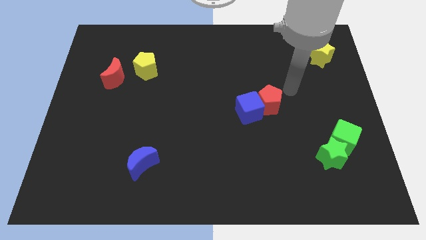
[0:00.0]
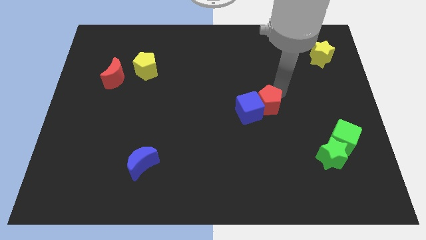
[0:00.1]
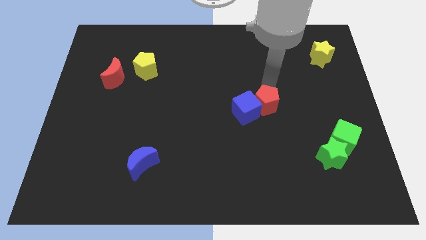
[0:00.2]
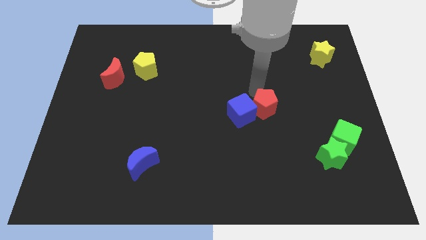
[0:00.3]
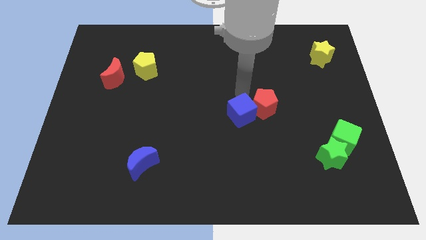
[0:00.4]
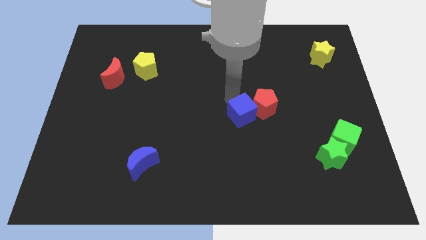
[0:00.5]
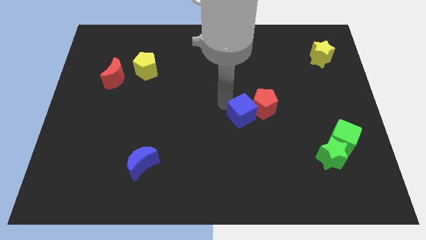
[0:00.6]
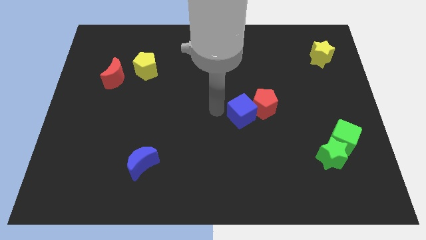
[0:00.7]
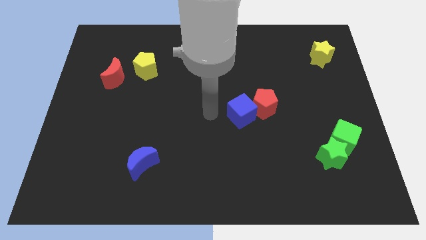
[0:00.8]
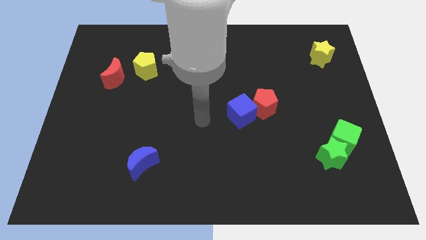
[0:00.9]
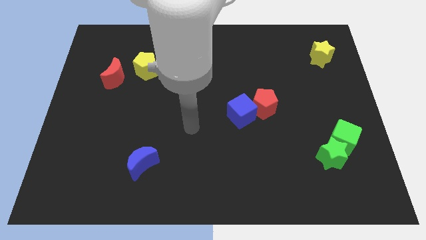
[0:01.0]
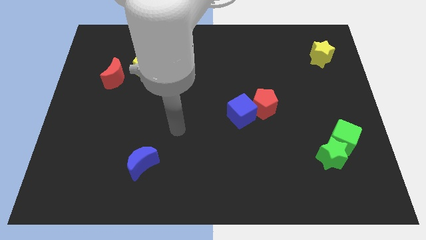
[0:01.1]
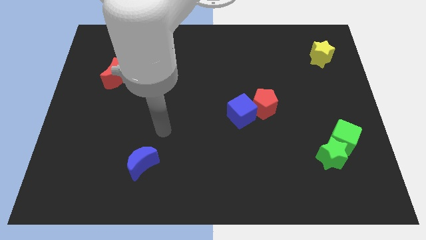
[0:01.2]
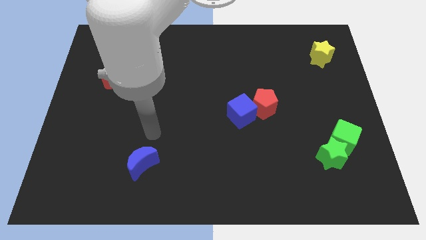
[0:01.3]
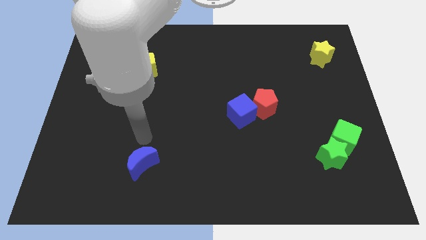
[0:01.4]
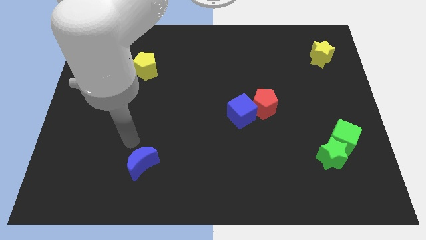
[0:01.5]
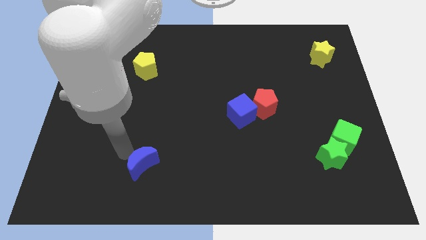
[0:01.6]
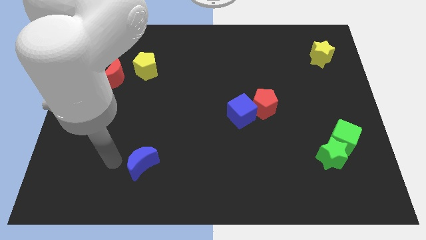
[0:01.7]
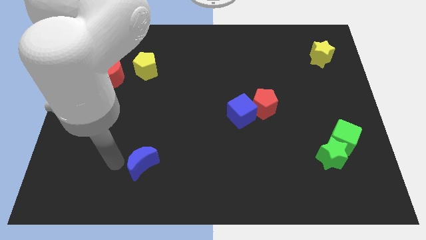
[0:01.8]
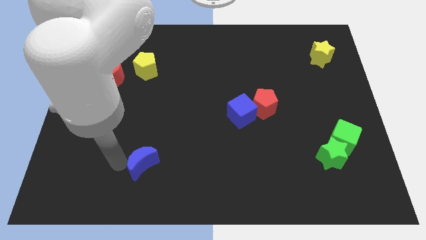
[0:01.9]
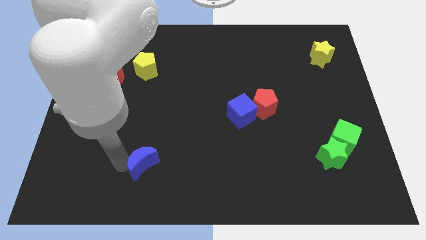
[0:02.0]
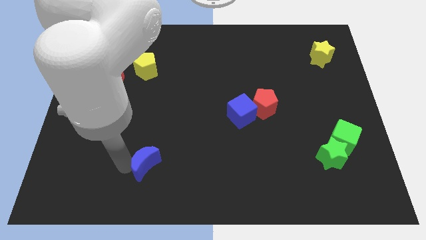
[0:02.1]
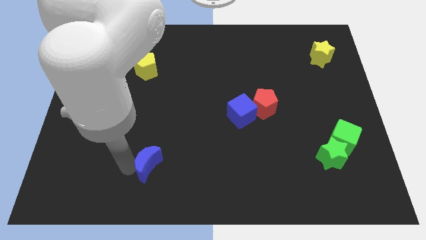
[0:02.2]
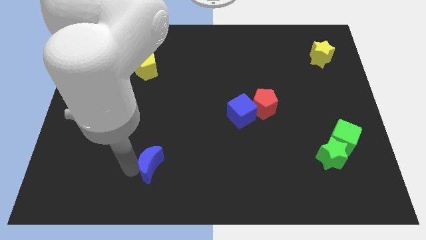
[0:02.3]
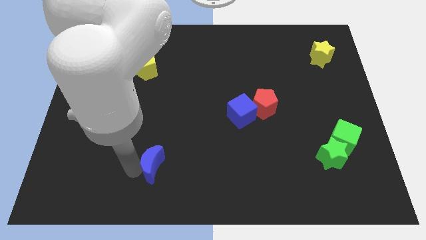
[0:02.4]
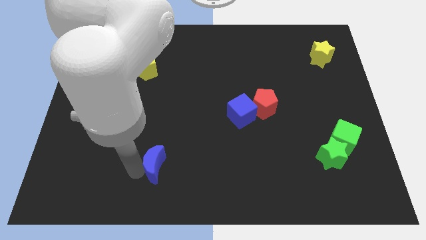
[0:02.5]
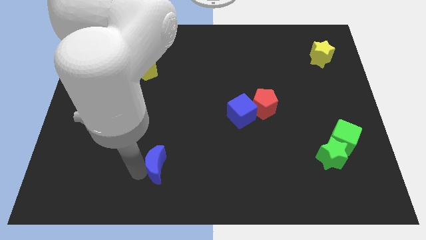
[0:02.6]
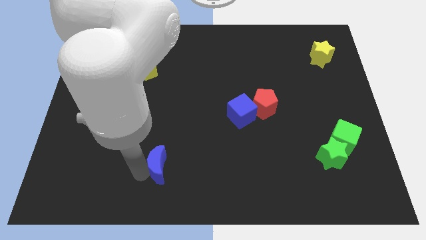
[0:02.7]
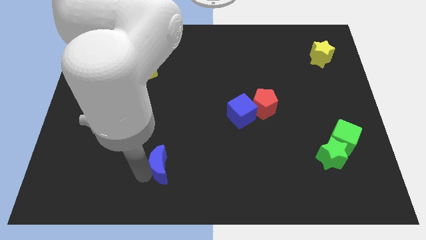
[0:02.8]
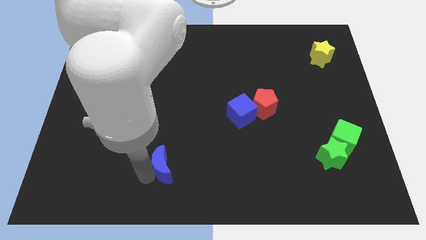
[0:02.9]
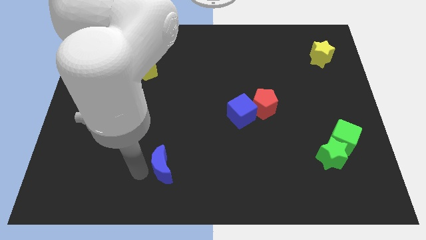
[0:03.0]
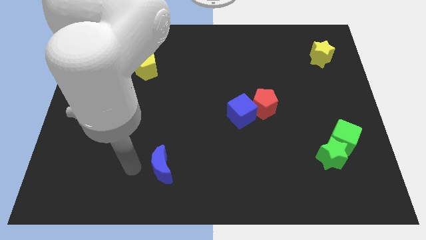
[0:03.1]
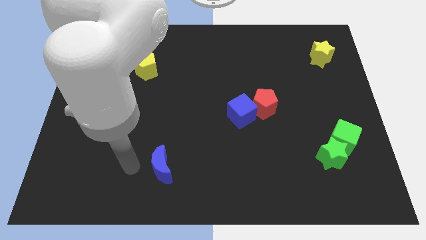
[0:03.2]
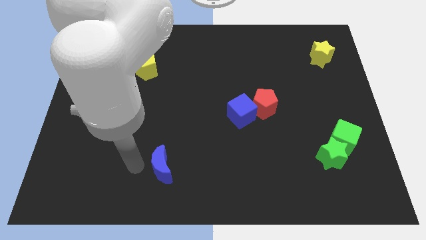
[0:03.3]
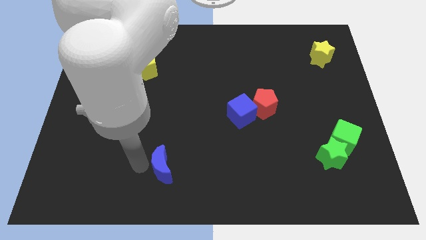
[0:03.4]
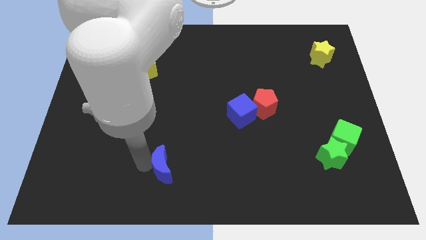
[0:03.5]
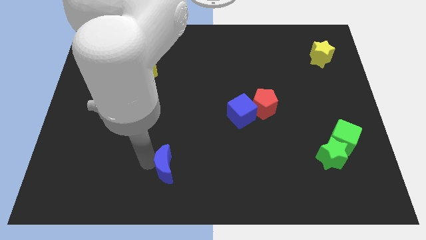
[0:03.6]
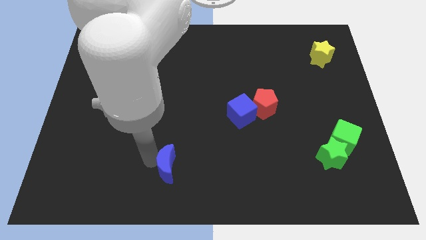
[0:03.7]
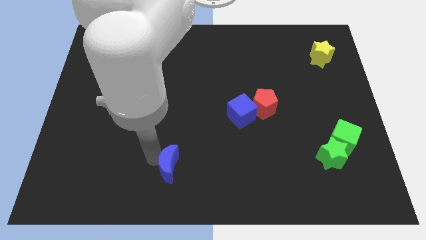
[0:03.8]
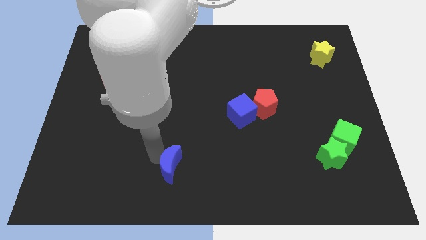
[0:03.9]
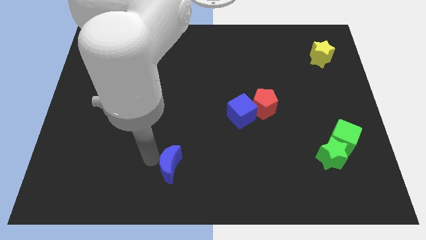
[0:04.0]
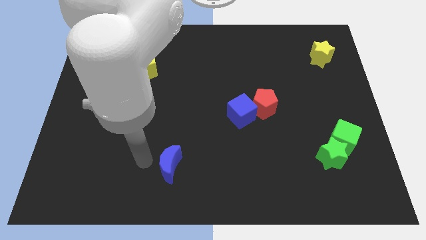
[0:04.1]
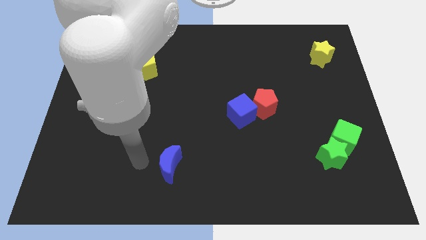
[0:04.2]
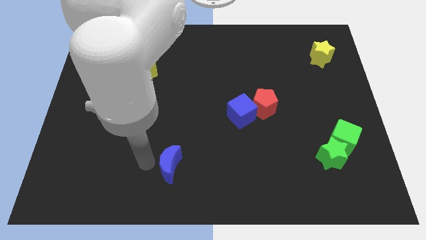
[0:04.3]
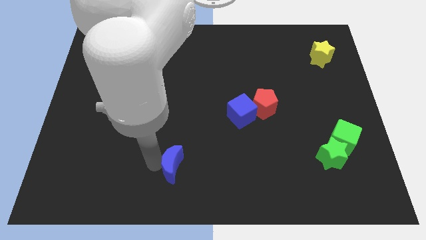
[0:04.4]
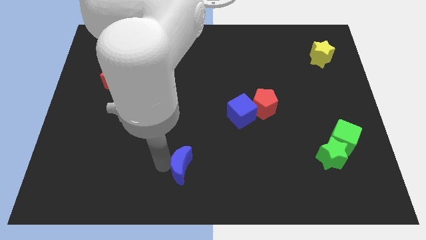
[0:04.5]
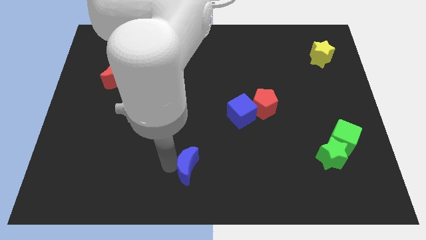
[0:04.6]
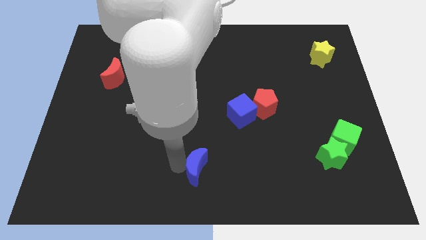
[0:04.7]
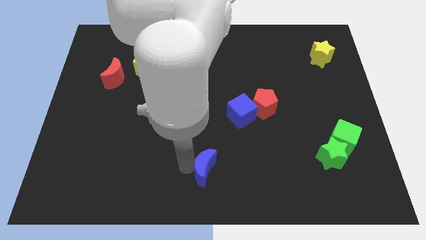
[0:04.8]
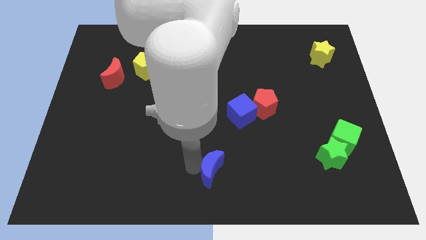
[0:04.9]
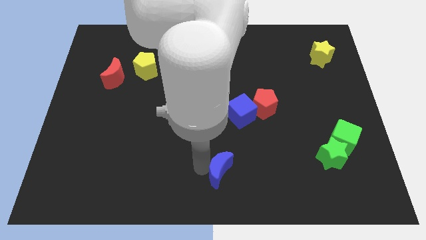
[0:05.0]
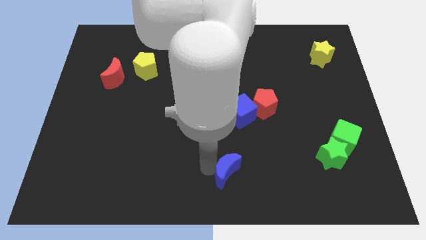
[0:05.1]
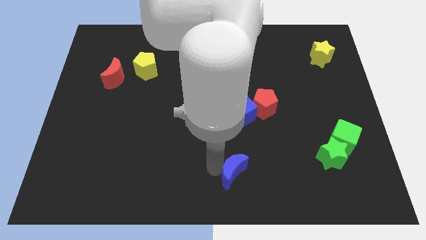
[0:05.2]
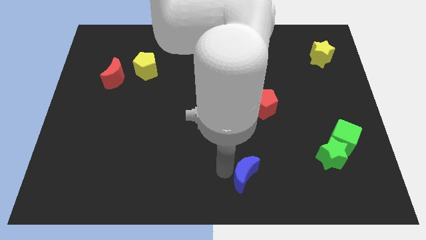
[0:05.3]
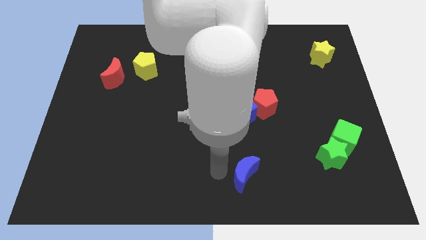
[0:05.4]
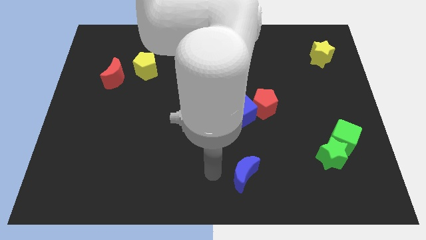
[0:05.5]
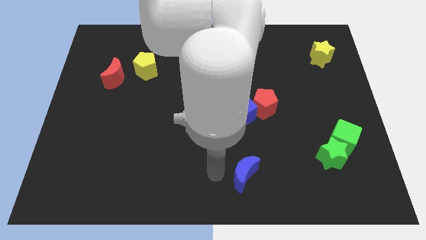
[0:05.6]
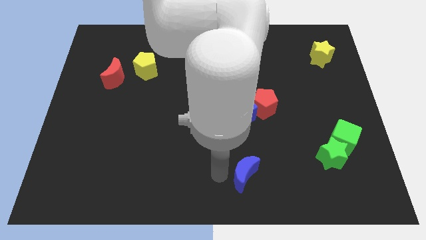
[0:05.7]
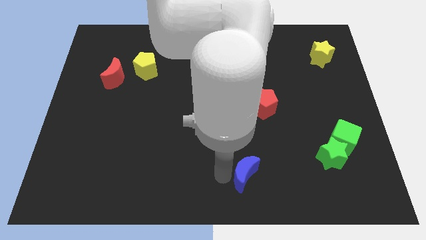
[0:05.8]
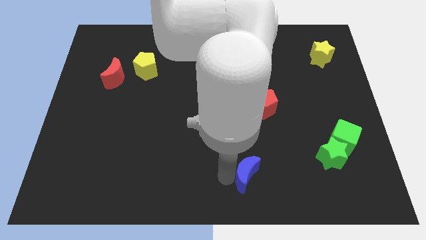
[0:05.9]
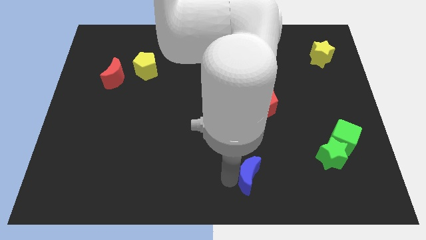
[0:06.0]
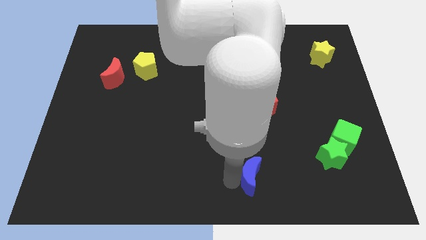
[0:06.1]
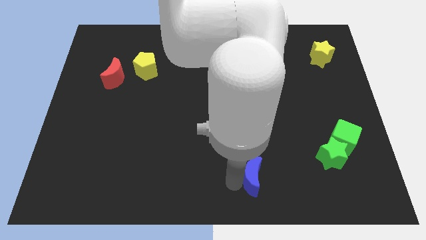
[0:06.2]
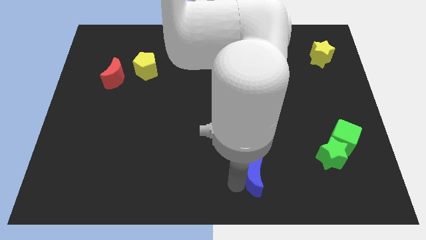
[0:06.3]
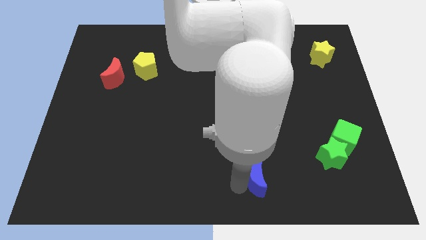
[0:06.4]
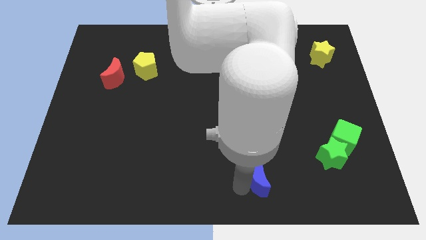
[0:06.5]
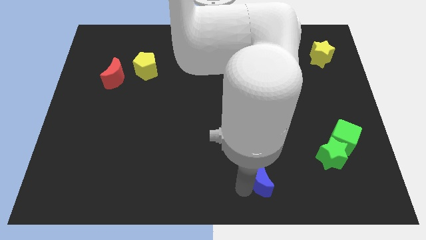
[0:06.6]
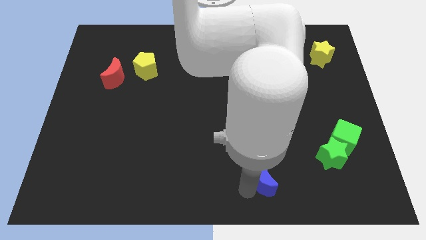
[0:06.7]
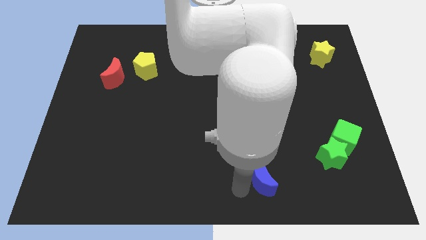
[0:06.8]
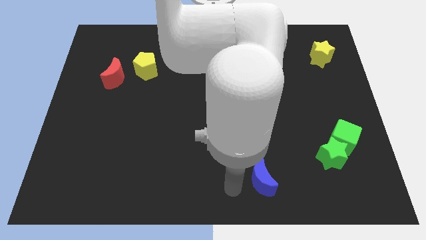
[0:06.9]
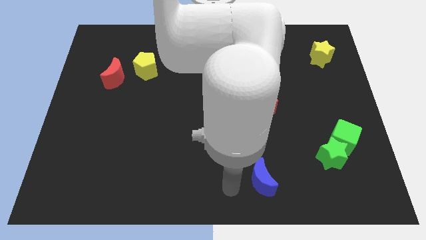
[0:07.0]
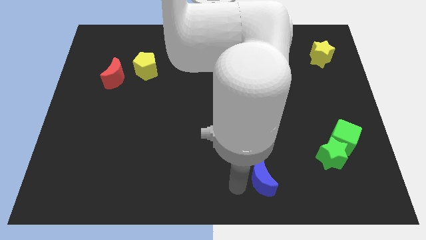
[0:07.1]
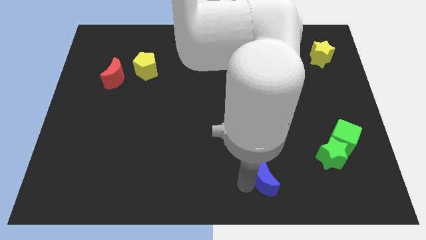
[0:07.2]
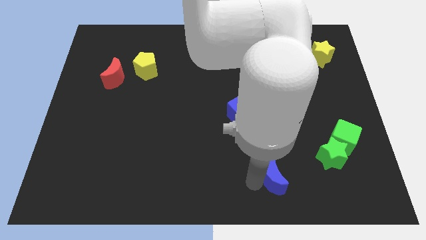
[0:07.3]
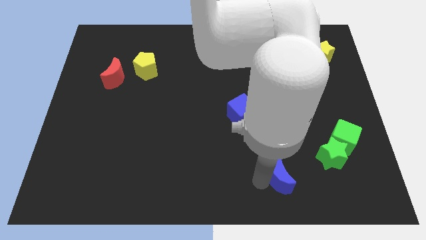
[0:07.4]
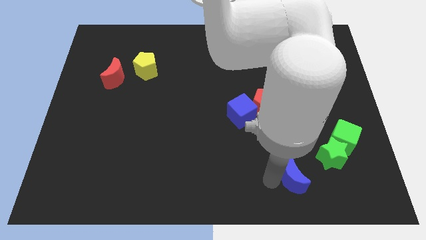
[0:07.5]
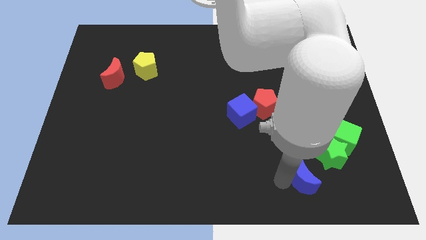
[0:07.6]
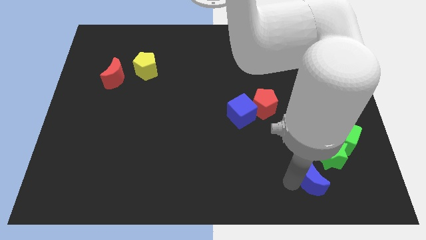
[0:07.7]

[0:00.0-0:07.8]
push the blue moon to the bottom left side of the green cube
